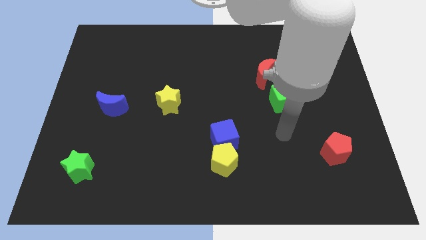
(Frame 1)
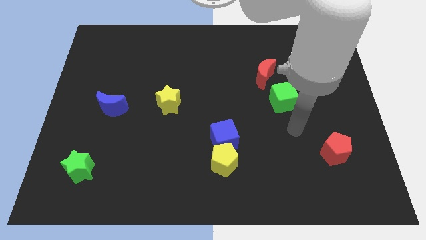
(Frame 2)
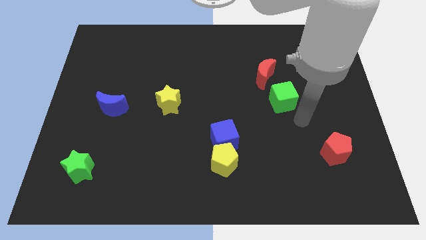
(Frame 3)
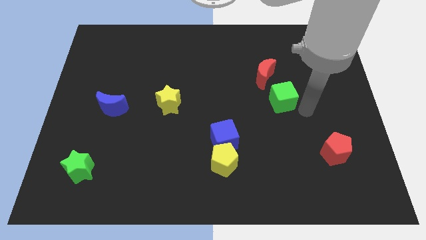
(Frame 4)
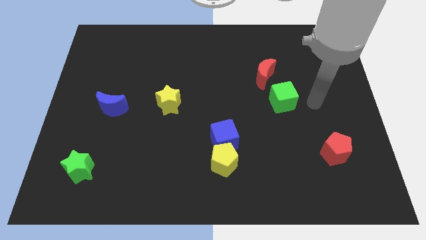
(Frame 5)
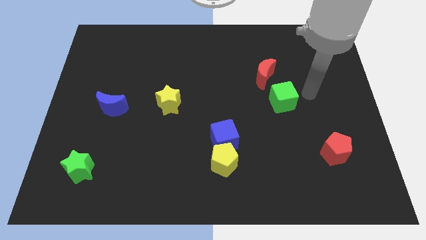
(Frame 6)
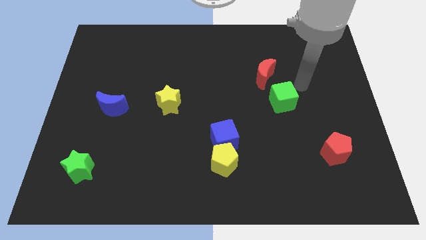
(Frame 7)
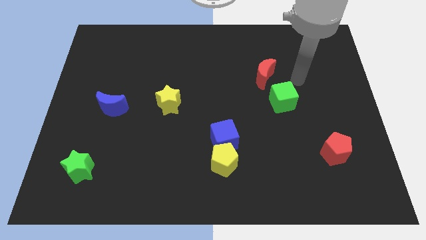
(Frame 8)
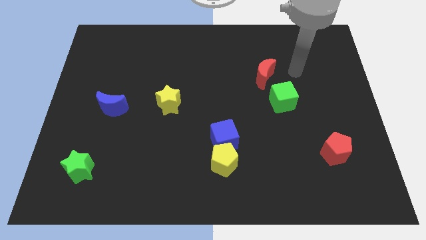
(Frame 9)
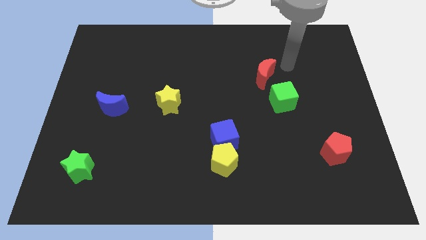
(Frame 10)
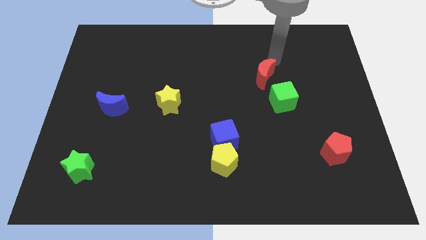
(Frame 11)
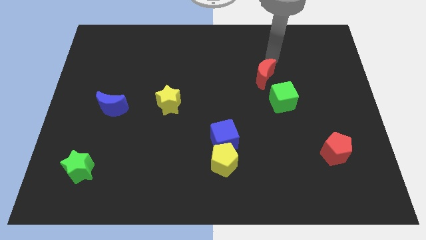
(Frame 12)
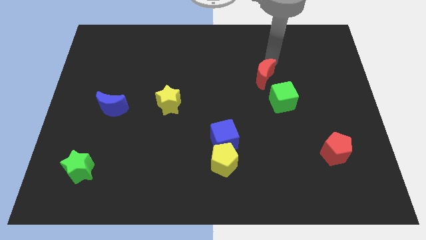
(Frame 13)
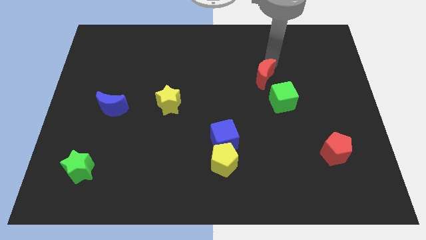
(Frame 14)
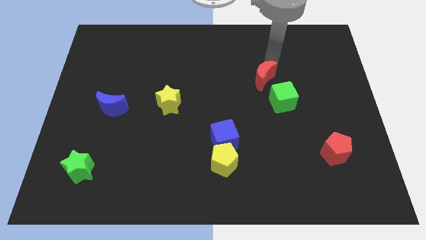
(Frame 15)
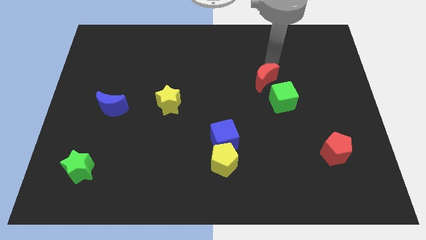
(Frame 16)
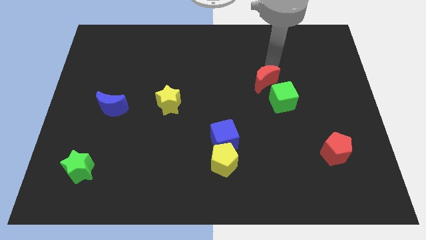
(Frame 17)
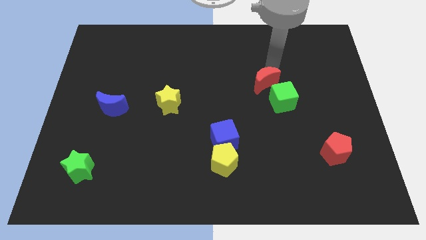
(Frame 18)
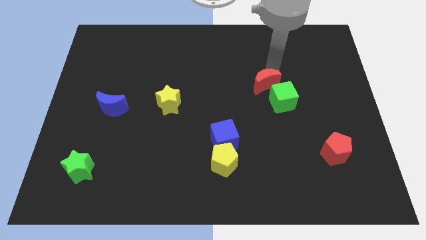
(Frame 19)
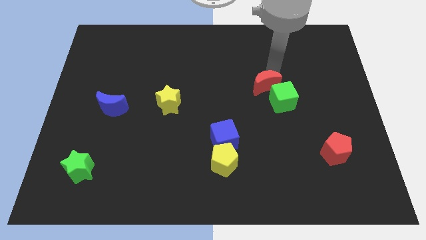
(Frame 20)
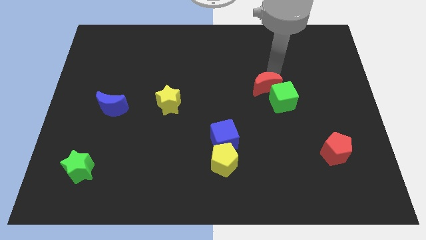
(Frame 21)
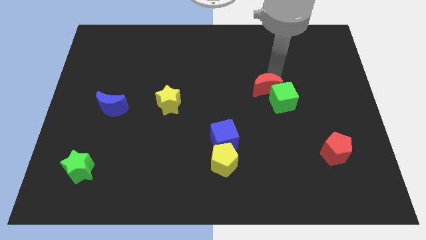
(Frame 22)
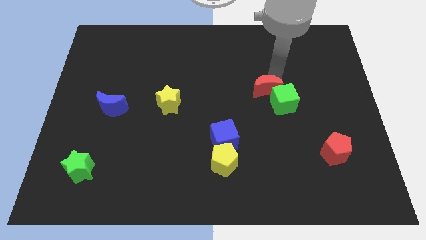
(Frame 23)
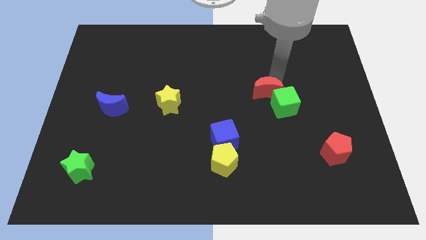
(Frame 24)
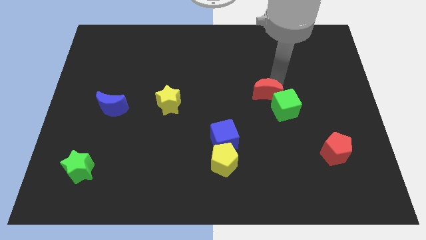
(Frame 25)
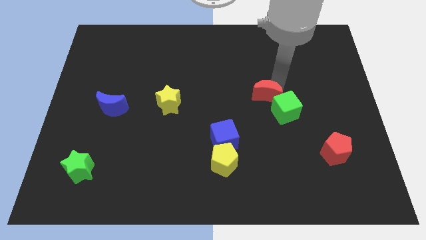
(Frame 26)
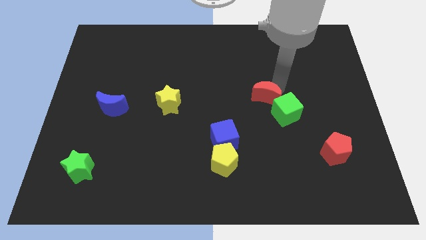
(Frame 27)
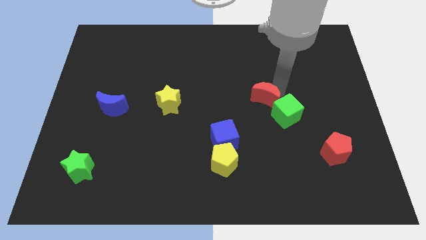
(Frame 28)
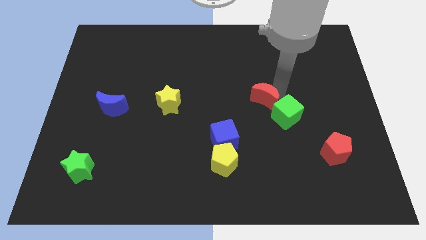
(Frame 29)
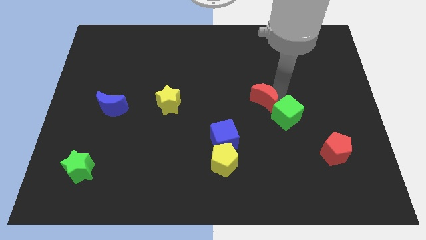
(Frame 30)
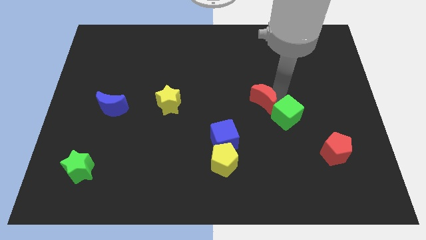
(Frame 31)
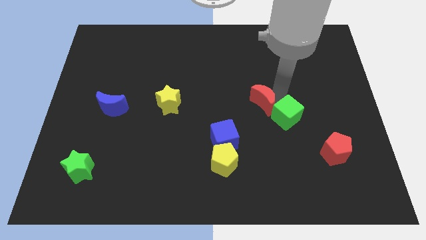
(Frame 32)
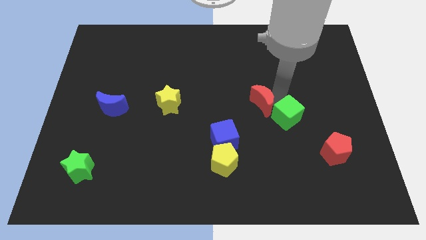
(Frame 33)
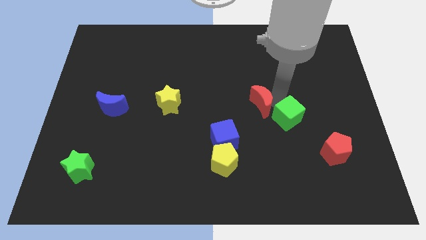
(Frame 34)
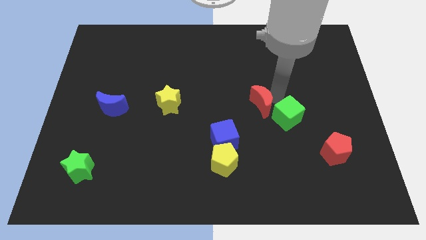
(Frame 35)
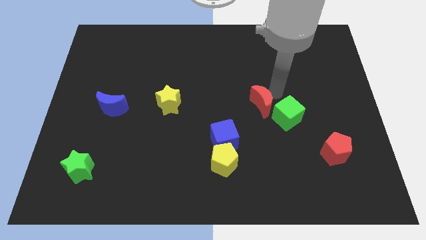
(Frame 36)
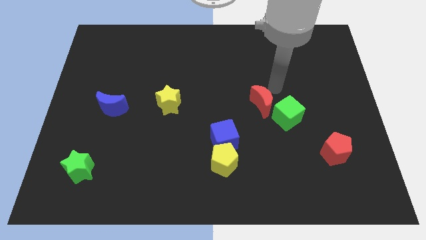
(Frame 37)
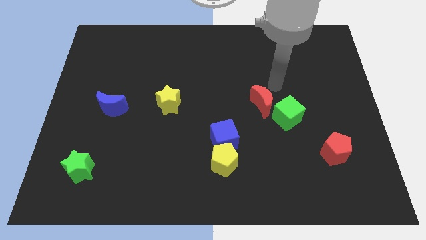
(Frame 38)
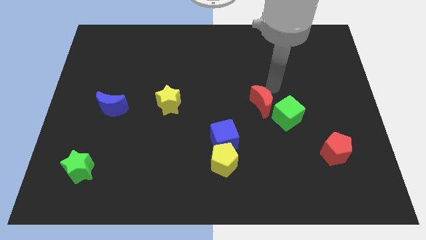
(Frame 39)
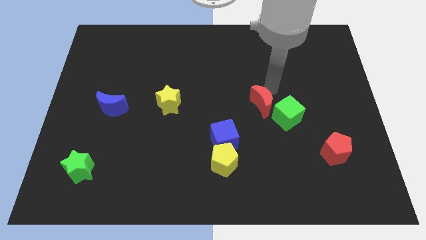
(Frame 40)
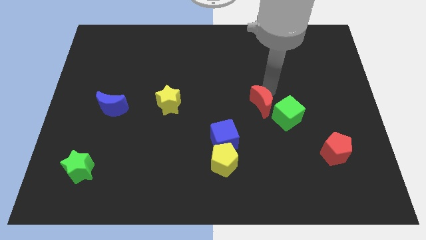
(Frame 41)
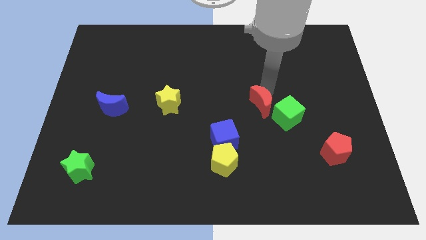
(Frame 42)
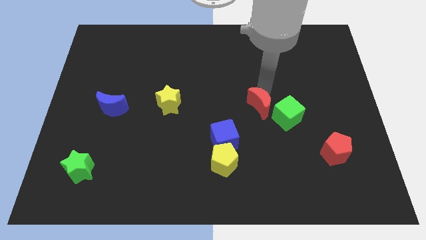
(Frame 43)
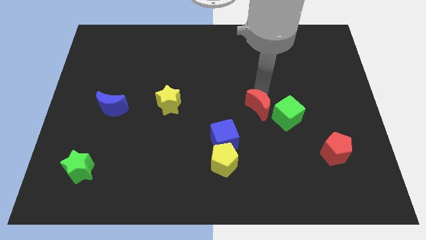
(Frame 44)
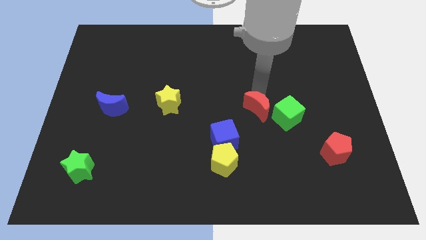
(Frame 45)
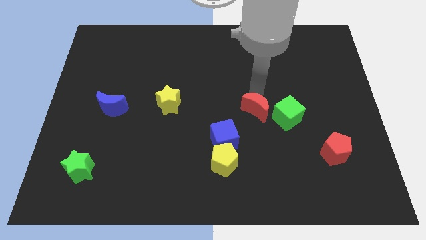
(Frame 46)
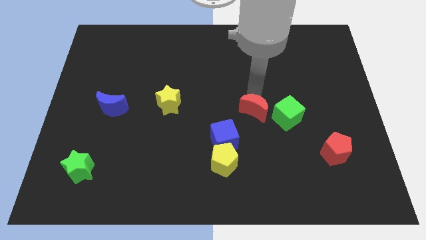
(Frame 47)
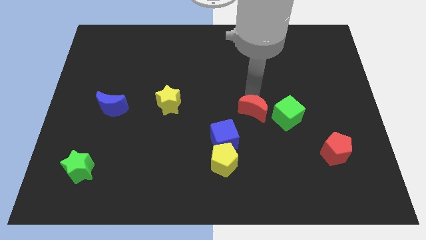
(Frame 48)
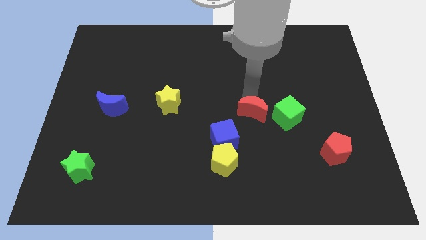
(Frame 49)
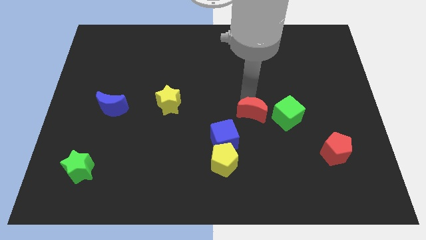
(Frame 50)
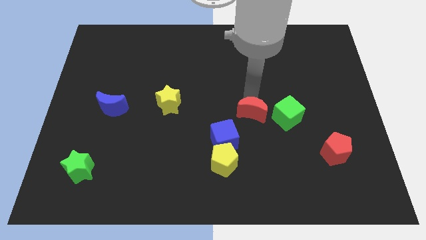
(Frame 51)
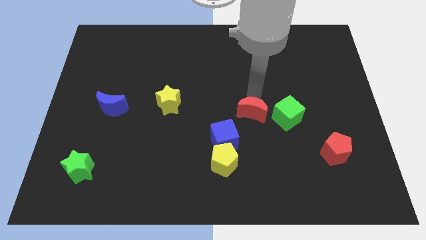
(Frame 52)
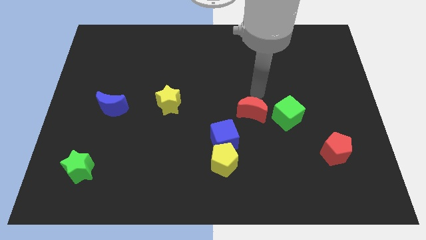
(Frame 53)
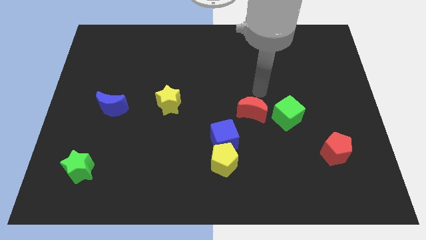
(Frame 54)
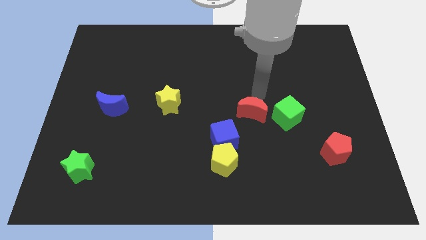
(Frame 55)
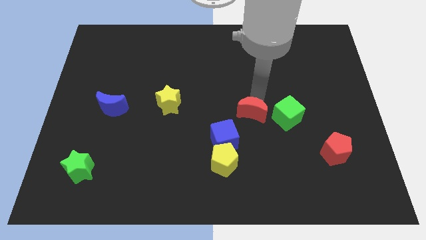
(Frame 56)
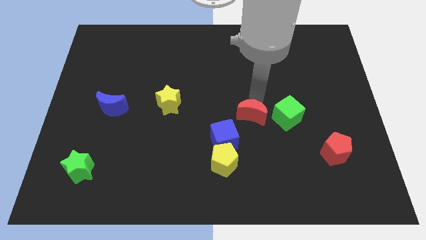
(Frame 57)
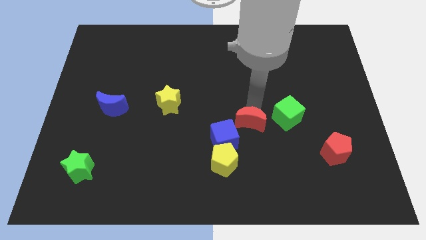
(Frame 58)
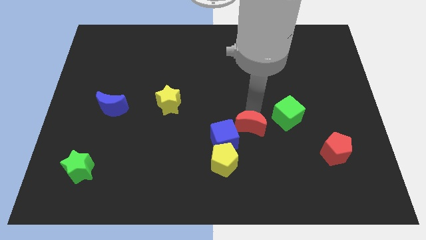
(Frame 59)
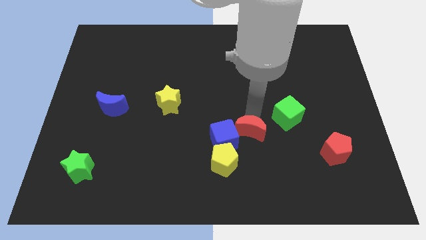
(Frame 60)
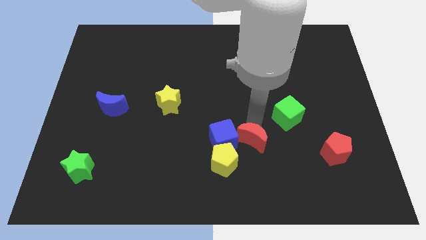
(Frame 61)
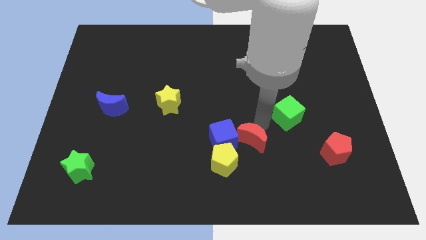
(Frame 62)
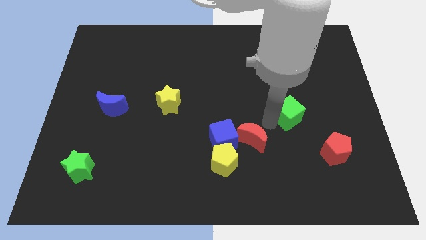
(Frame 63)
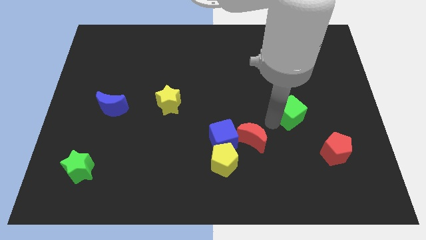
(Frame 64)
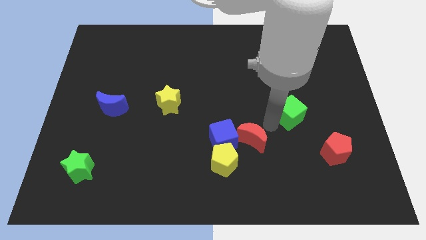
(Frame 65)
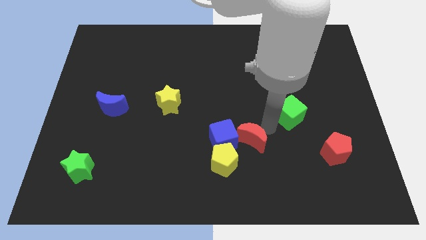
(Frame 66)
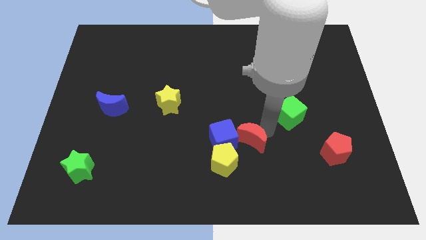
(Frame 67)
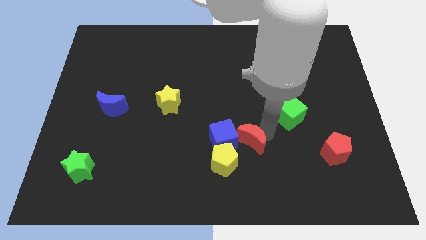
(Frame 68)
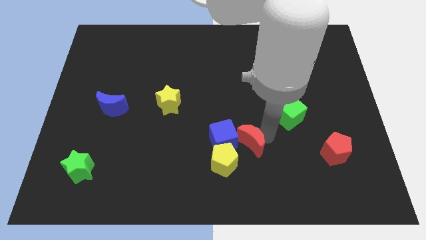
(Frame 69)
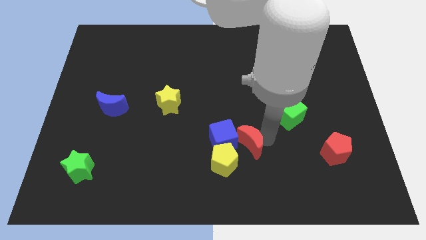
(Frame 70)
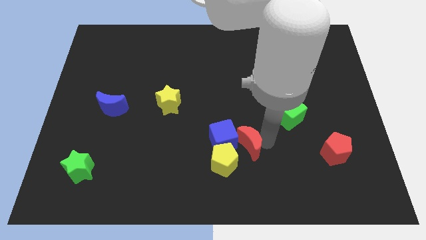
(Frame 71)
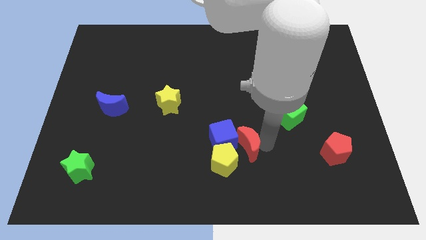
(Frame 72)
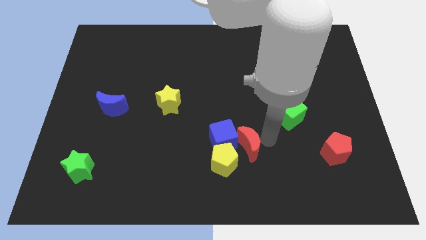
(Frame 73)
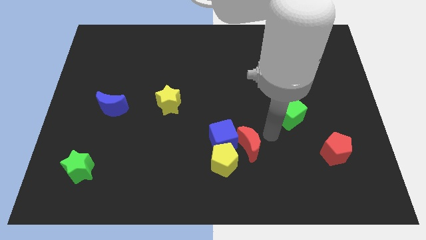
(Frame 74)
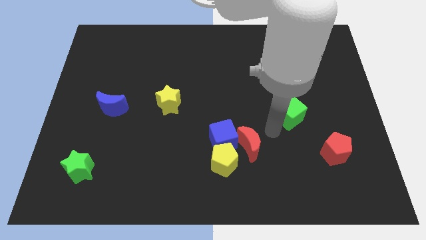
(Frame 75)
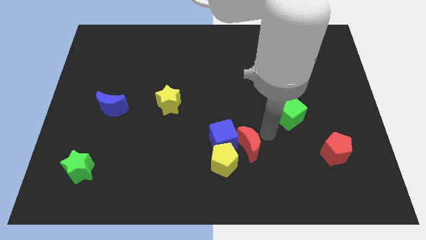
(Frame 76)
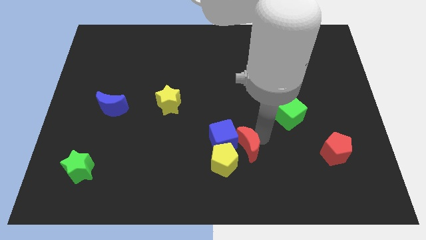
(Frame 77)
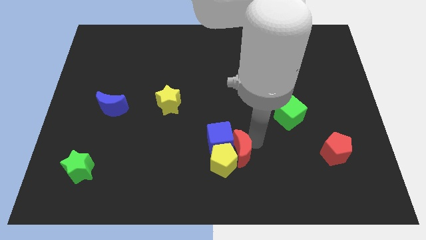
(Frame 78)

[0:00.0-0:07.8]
put the red moon towards the yellow pentagon
